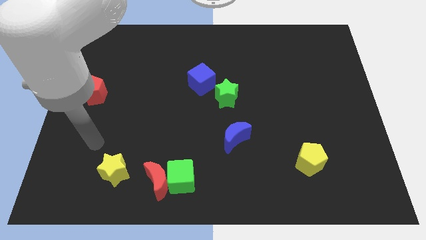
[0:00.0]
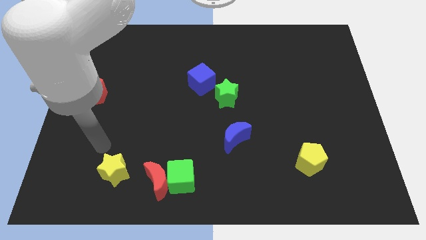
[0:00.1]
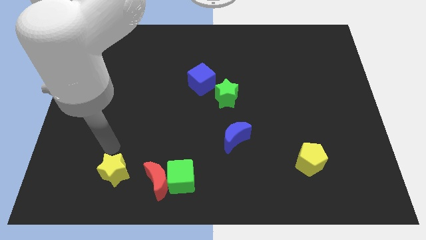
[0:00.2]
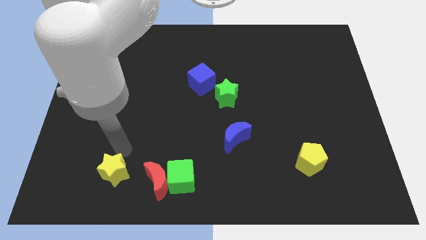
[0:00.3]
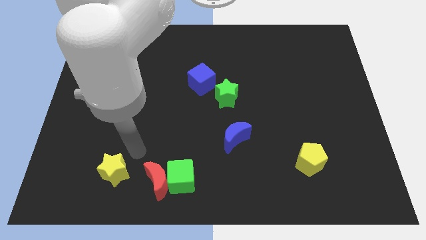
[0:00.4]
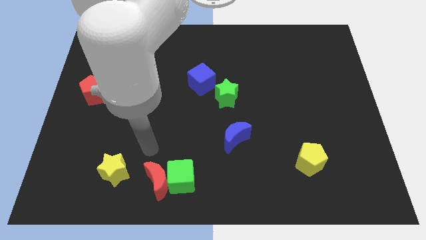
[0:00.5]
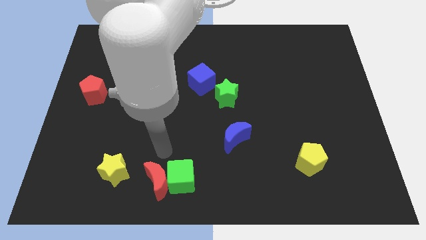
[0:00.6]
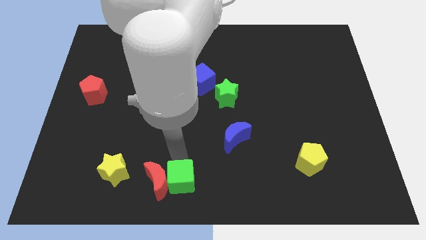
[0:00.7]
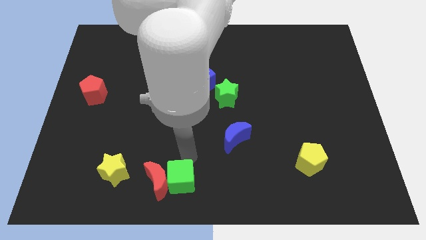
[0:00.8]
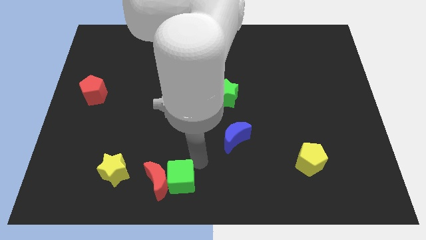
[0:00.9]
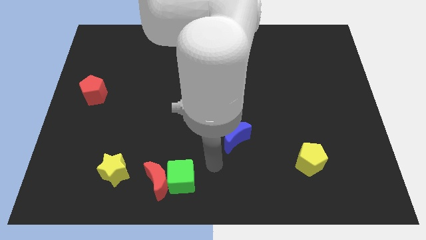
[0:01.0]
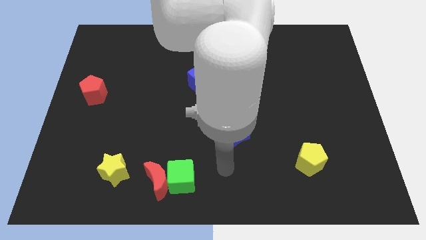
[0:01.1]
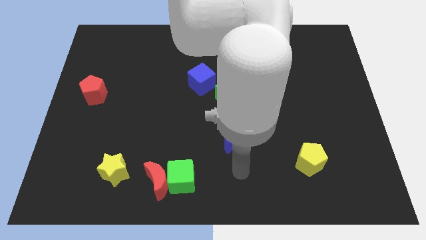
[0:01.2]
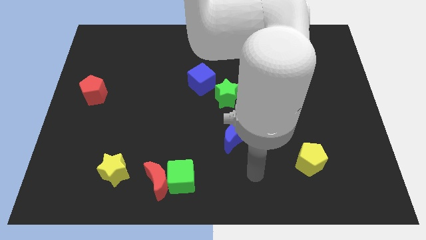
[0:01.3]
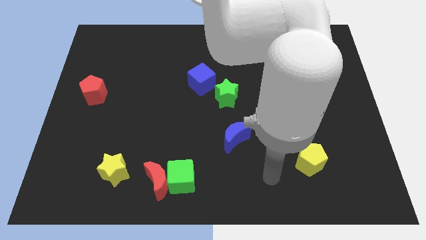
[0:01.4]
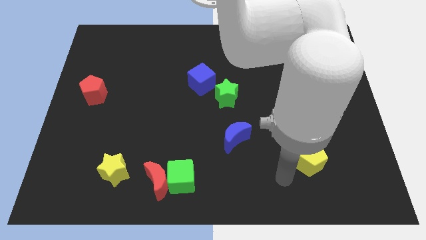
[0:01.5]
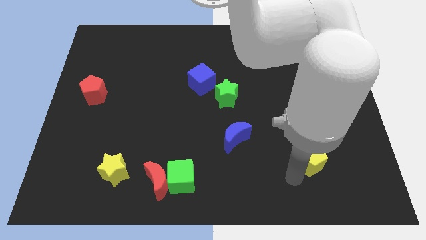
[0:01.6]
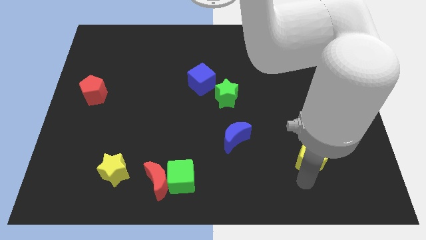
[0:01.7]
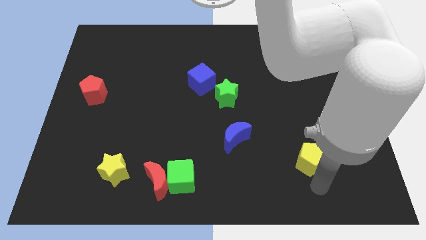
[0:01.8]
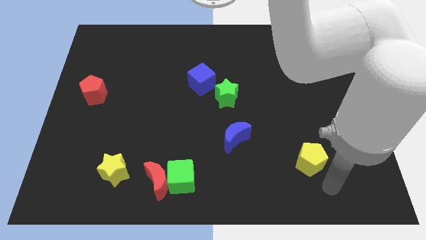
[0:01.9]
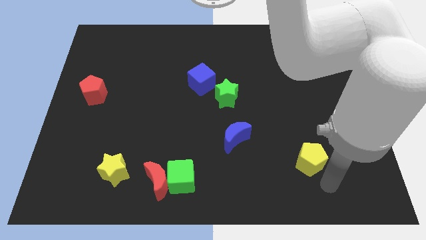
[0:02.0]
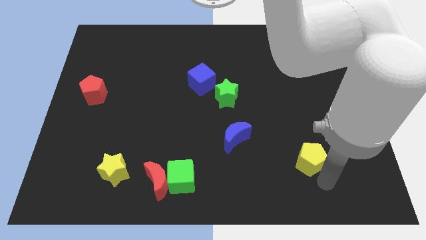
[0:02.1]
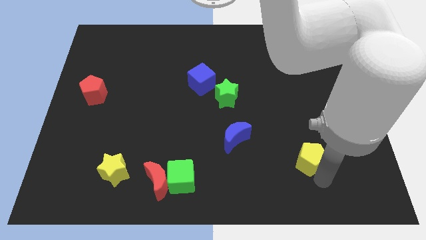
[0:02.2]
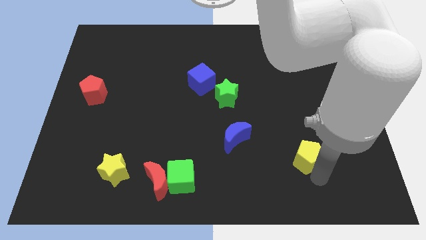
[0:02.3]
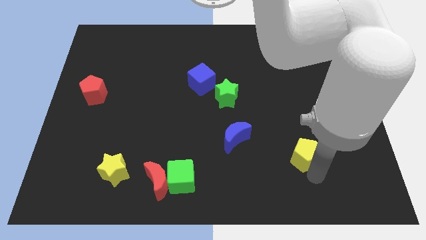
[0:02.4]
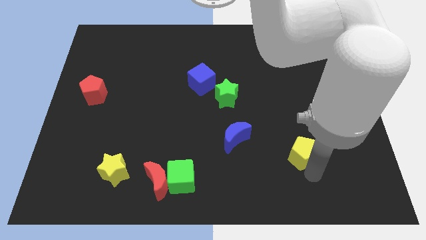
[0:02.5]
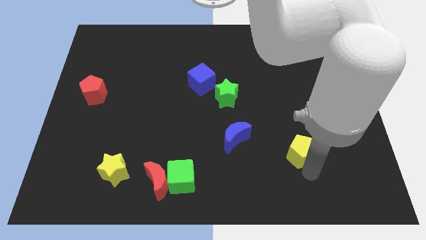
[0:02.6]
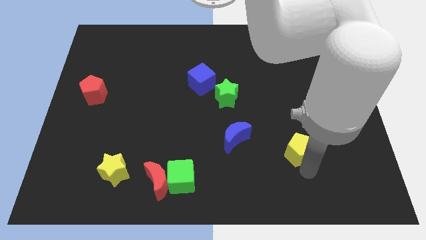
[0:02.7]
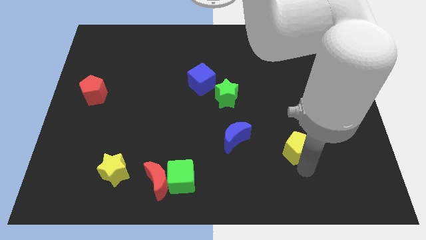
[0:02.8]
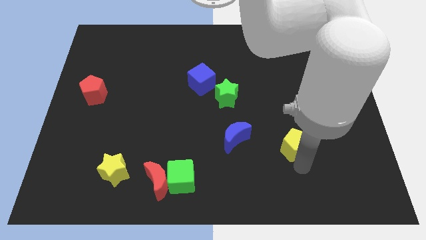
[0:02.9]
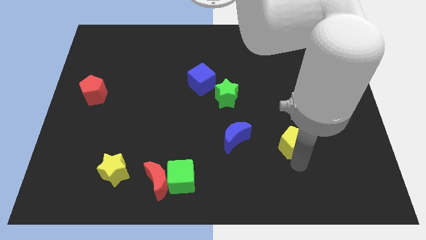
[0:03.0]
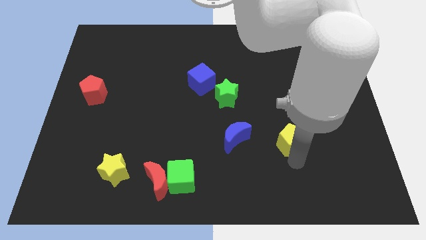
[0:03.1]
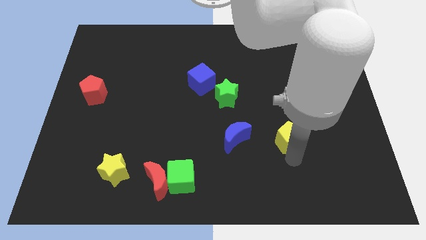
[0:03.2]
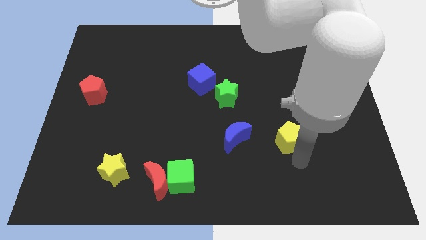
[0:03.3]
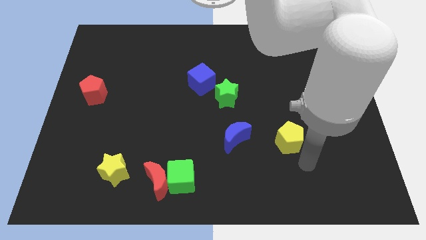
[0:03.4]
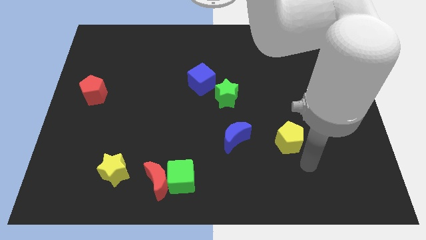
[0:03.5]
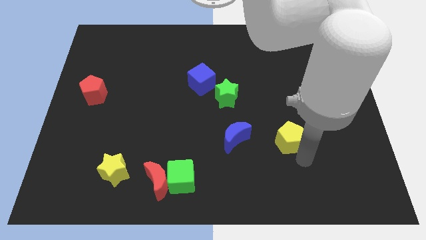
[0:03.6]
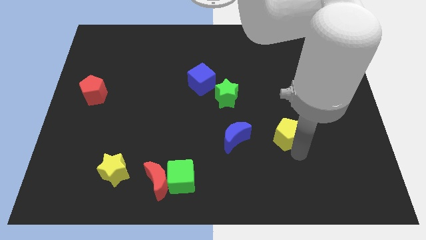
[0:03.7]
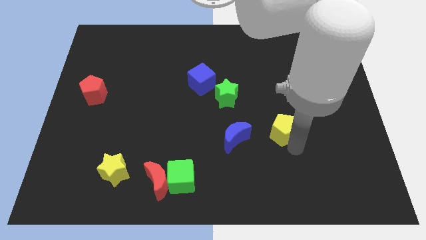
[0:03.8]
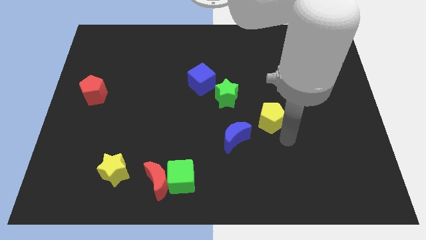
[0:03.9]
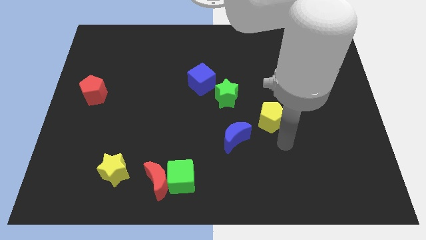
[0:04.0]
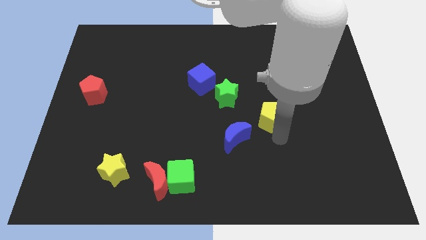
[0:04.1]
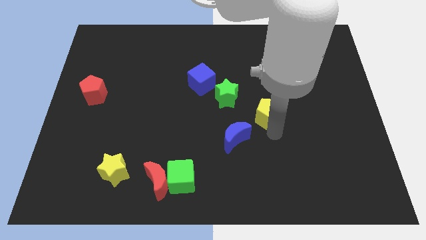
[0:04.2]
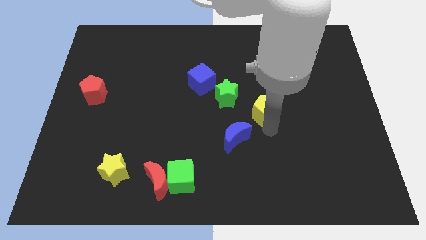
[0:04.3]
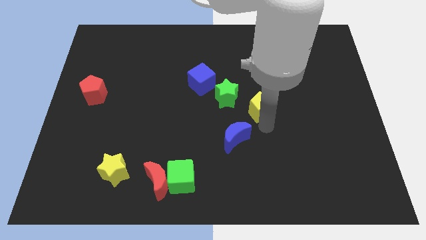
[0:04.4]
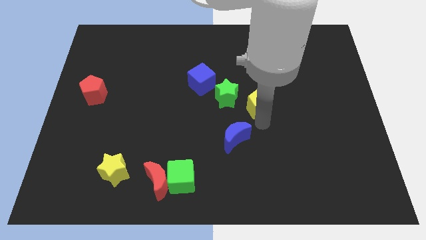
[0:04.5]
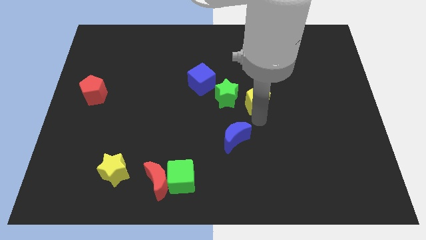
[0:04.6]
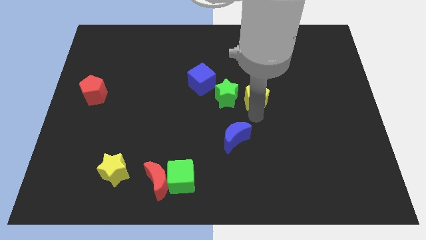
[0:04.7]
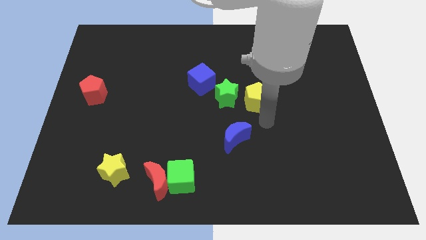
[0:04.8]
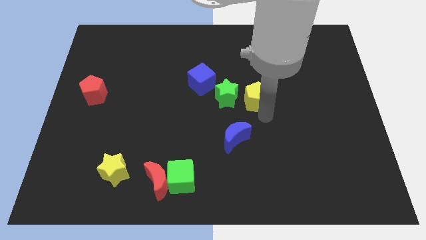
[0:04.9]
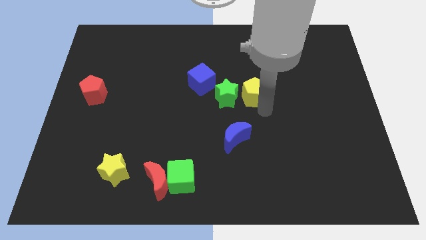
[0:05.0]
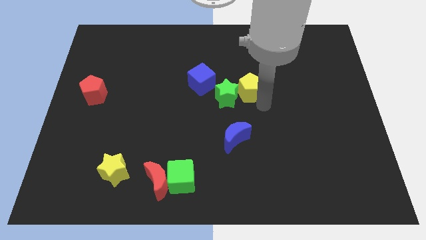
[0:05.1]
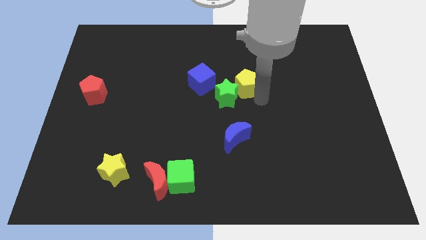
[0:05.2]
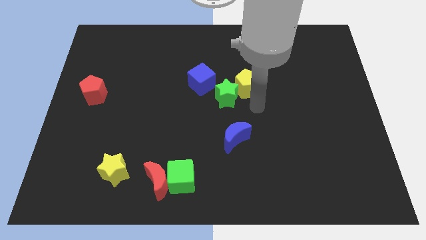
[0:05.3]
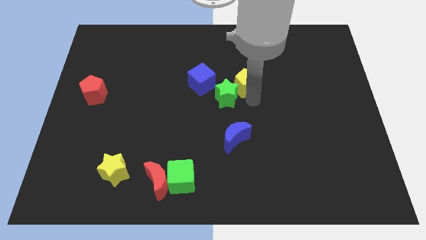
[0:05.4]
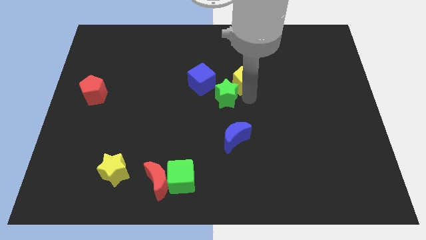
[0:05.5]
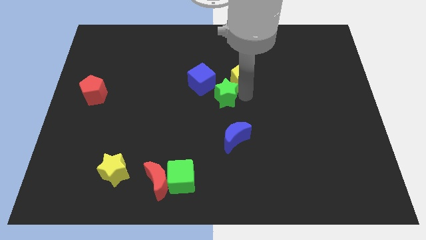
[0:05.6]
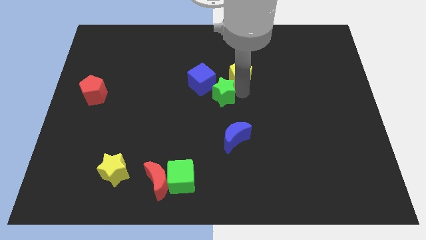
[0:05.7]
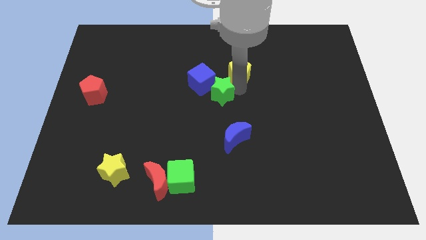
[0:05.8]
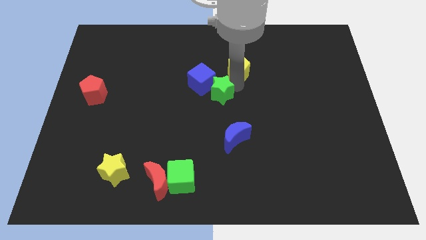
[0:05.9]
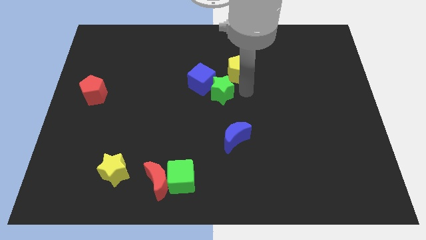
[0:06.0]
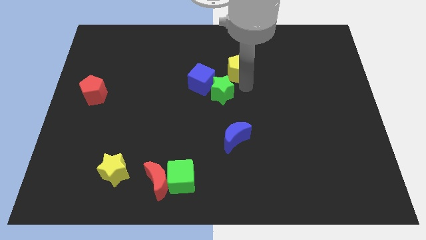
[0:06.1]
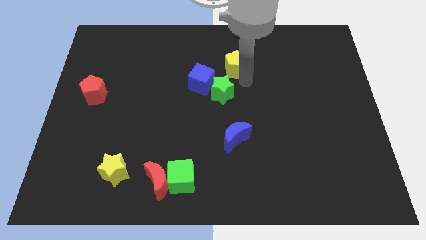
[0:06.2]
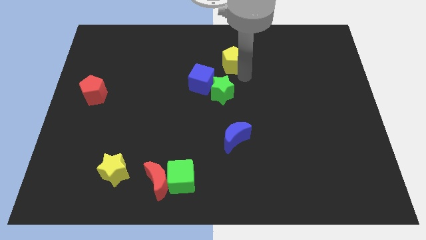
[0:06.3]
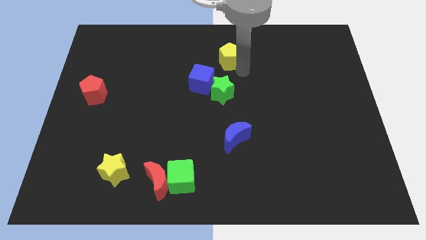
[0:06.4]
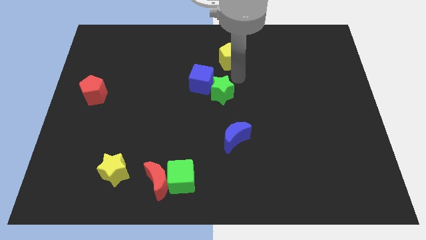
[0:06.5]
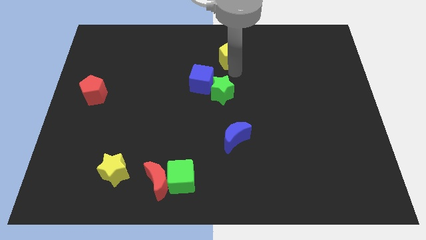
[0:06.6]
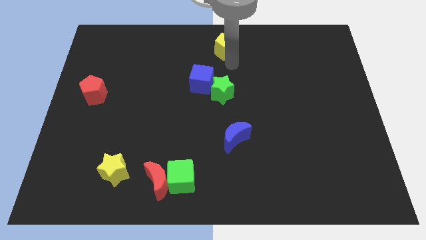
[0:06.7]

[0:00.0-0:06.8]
push the yellow pentagon to the top side
